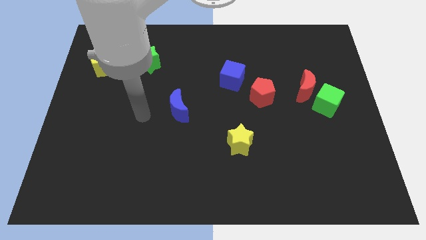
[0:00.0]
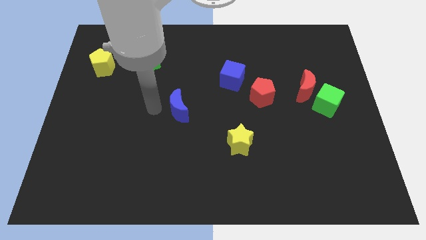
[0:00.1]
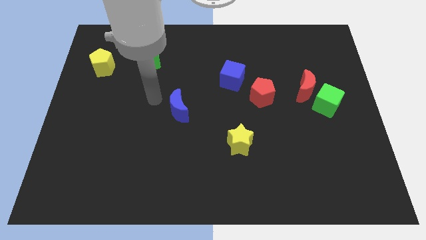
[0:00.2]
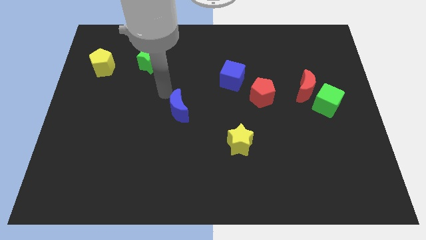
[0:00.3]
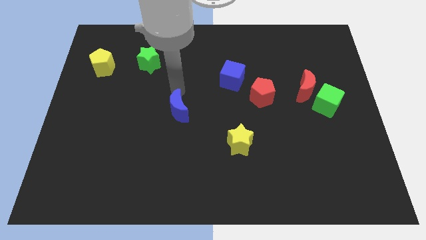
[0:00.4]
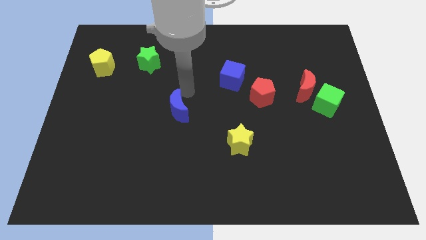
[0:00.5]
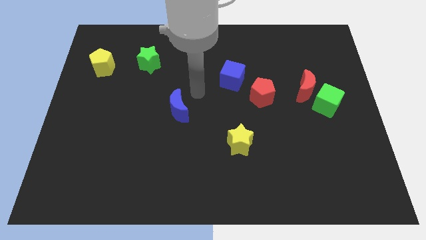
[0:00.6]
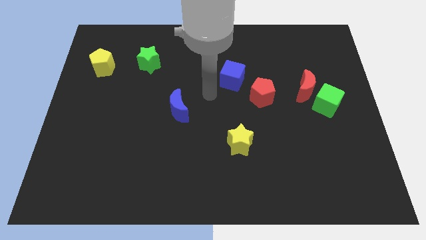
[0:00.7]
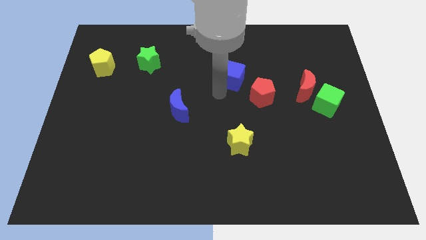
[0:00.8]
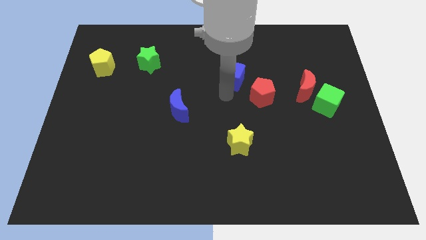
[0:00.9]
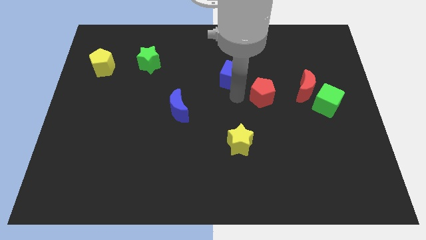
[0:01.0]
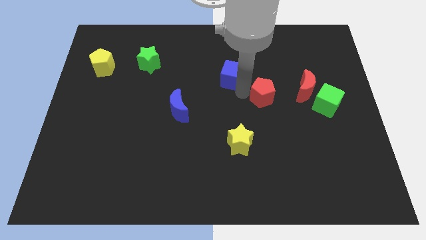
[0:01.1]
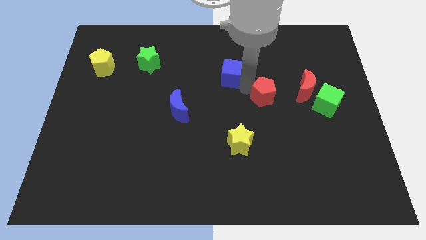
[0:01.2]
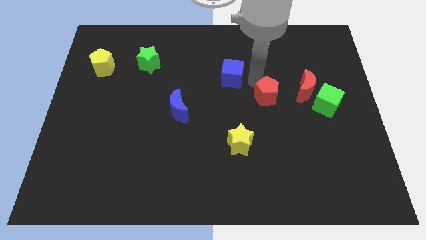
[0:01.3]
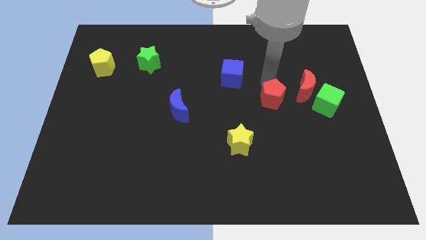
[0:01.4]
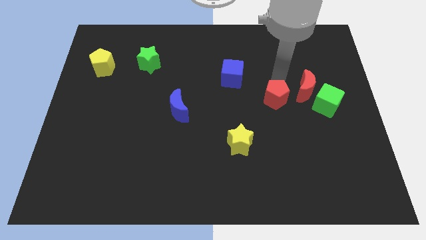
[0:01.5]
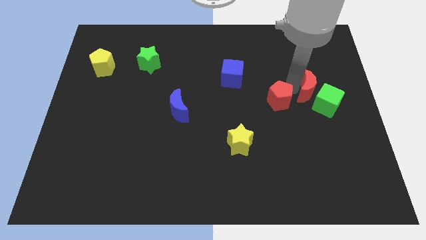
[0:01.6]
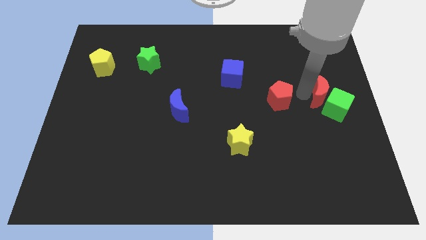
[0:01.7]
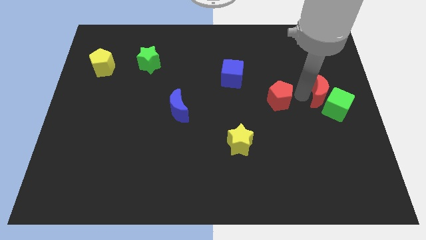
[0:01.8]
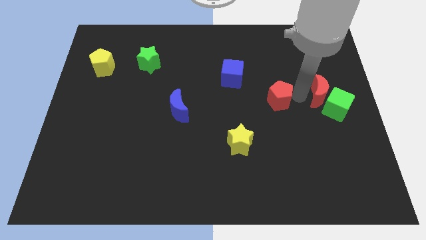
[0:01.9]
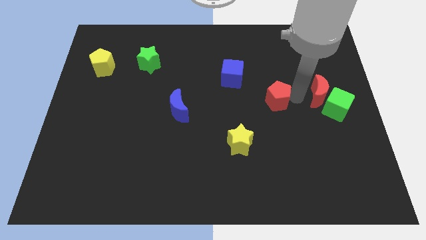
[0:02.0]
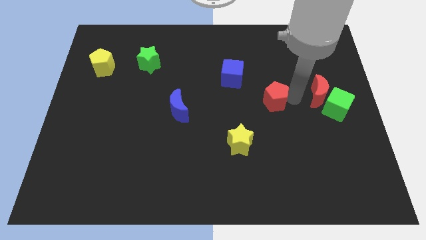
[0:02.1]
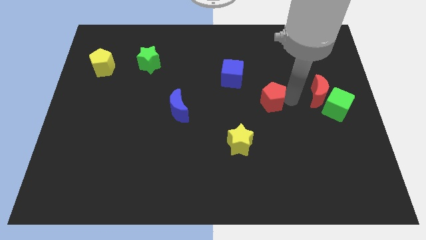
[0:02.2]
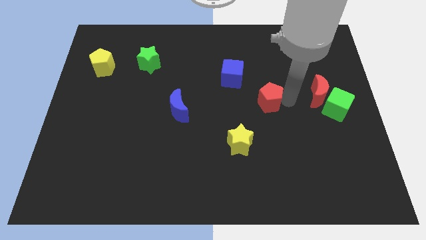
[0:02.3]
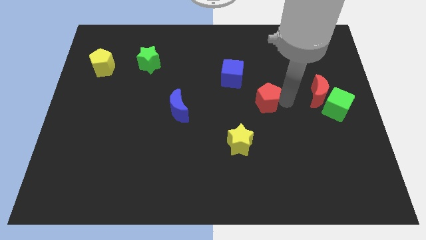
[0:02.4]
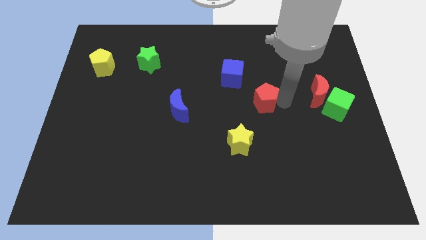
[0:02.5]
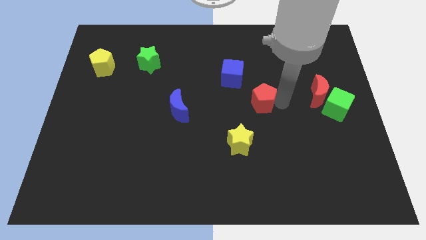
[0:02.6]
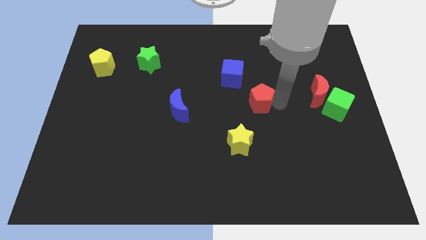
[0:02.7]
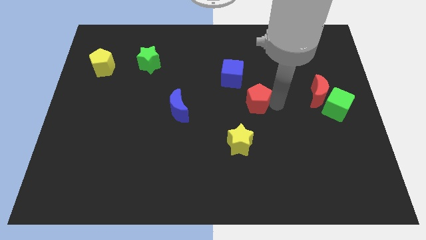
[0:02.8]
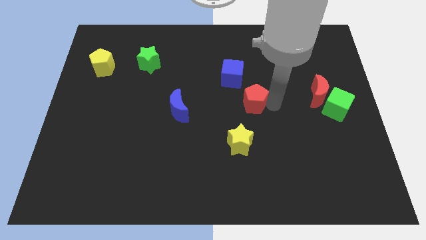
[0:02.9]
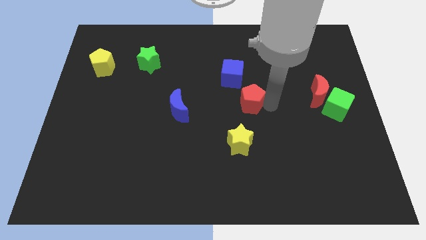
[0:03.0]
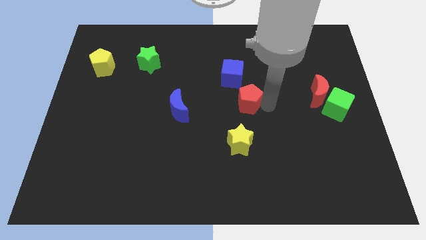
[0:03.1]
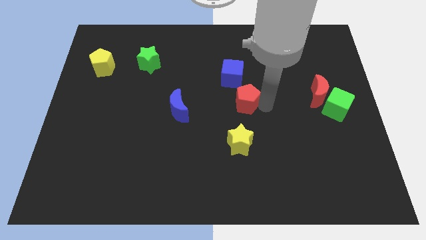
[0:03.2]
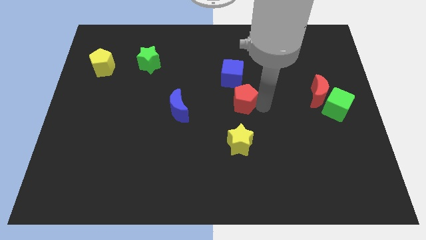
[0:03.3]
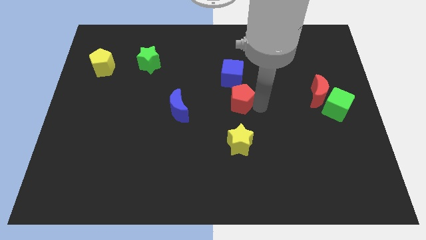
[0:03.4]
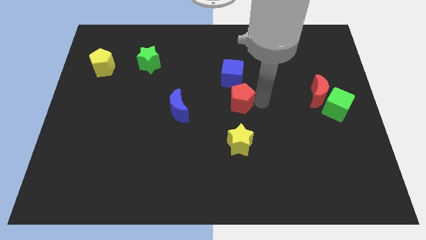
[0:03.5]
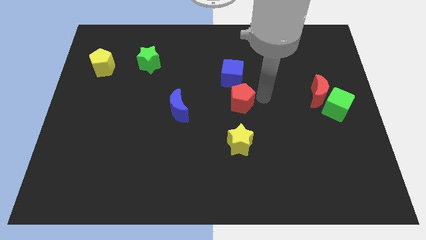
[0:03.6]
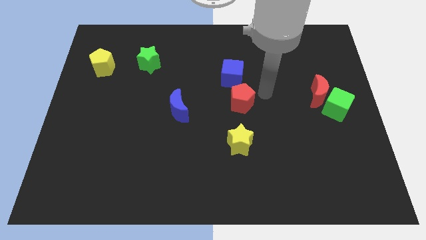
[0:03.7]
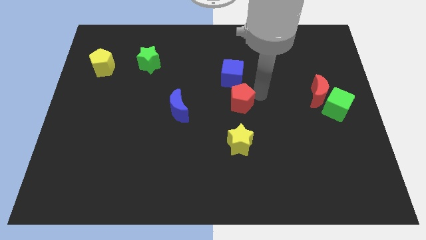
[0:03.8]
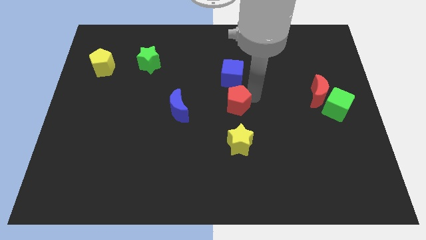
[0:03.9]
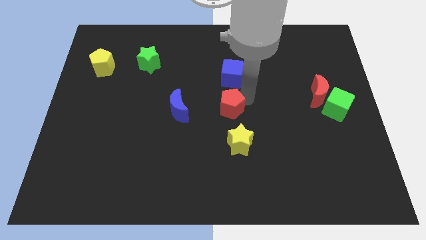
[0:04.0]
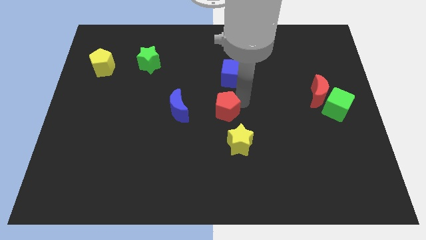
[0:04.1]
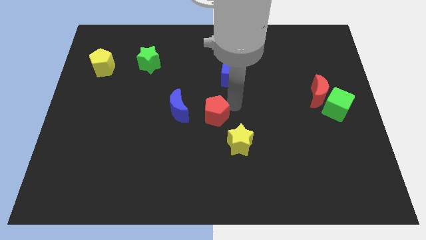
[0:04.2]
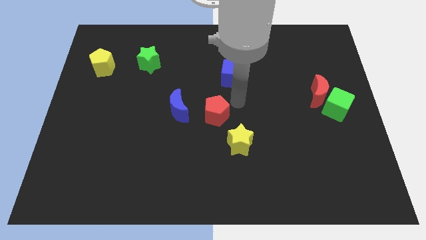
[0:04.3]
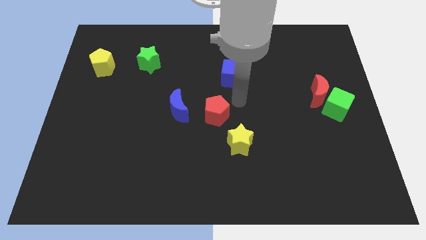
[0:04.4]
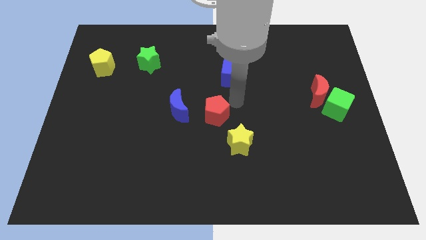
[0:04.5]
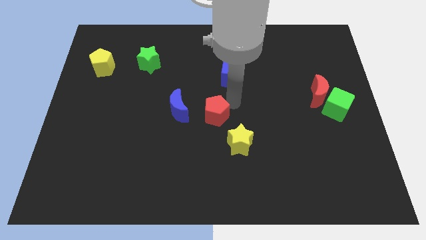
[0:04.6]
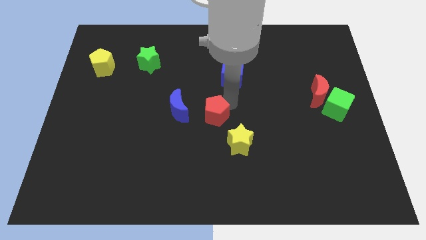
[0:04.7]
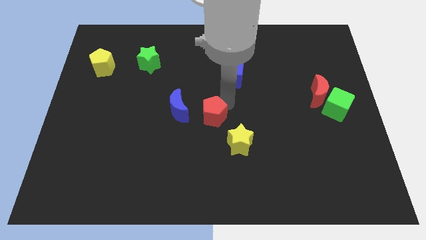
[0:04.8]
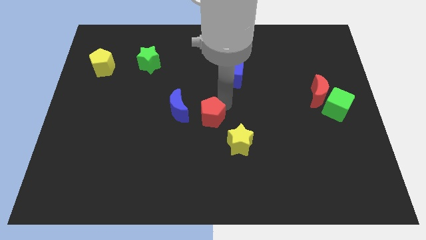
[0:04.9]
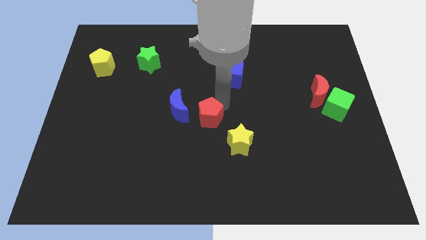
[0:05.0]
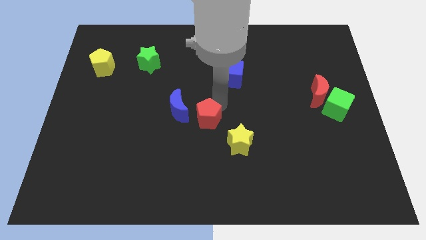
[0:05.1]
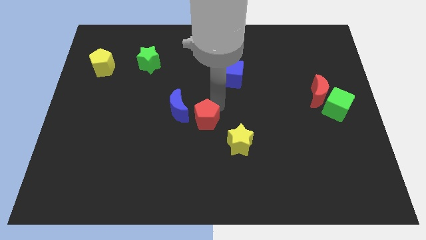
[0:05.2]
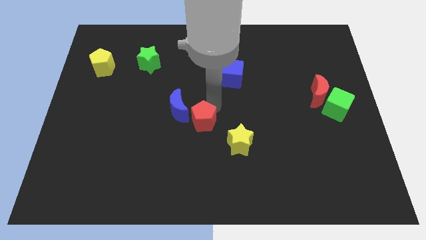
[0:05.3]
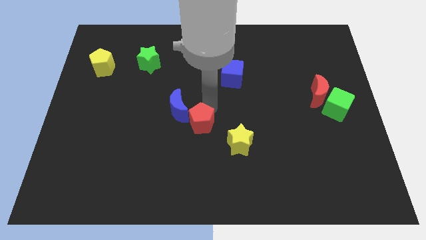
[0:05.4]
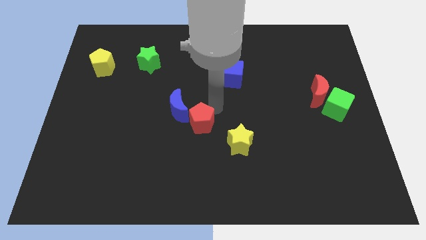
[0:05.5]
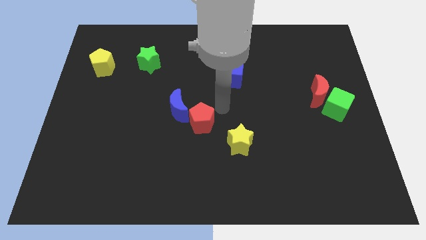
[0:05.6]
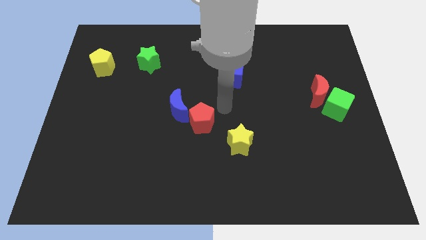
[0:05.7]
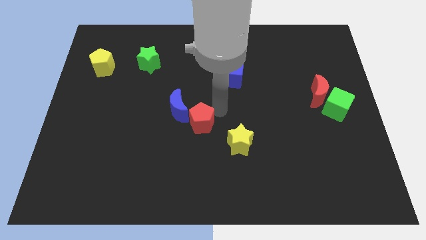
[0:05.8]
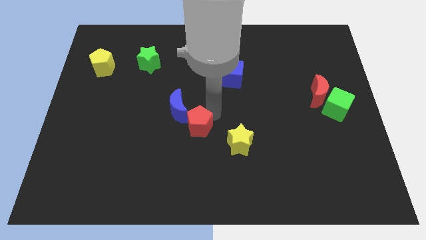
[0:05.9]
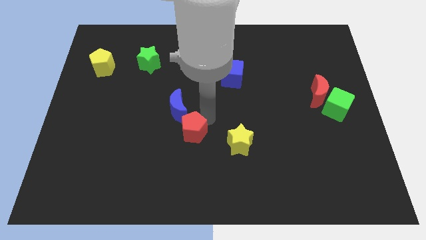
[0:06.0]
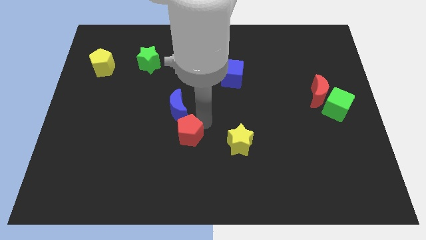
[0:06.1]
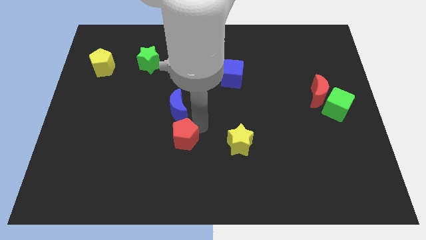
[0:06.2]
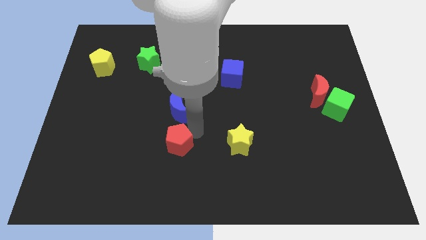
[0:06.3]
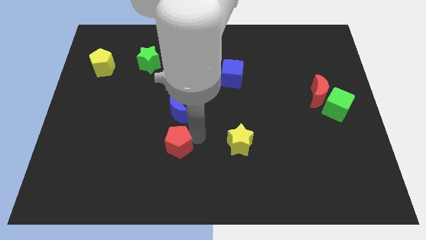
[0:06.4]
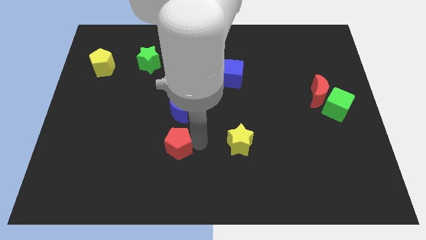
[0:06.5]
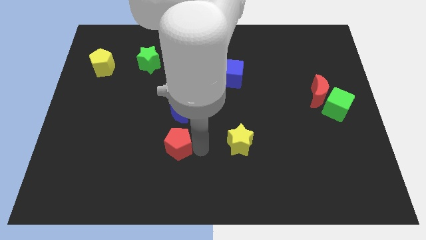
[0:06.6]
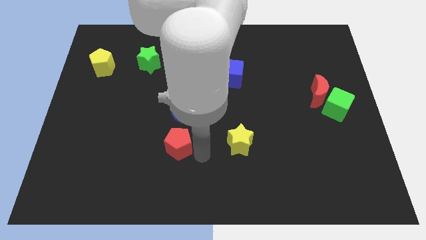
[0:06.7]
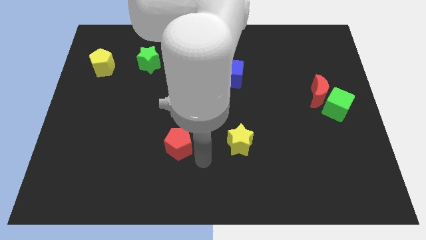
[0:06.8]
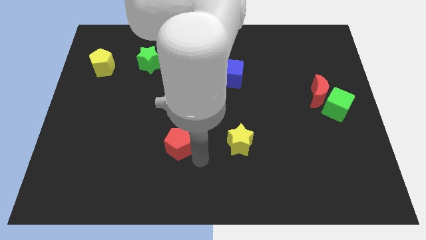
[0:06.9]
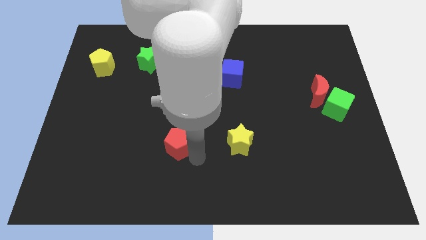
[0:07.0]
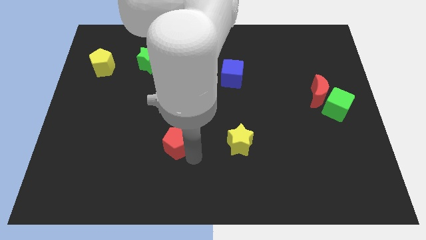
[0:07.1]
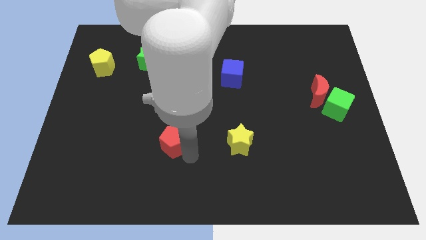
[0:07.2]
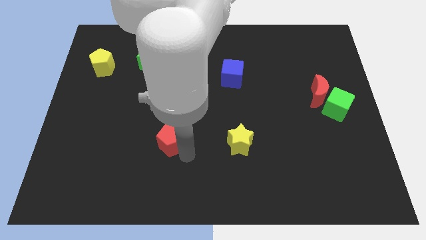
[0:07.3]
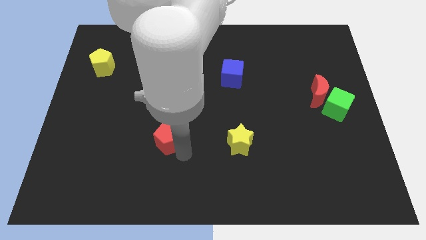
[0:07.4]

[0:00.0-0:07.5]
put the red pentagon diagonally down and to the left of the blue moon
